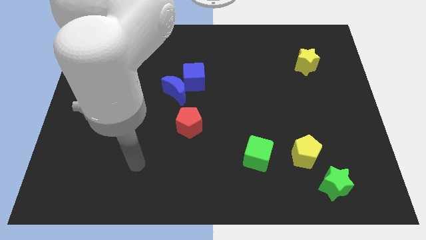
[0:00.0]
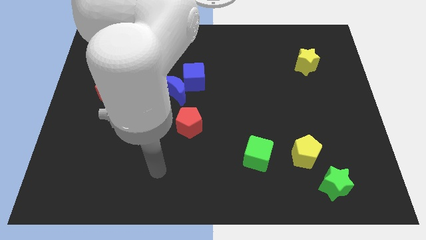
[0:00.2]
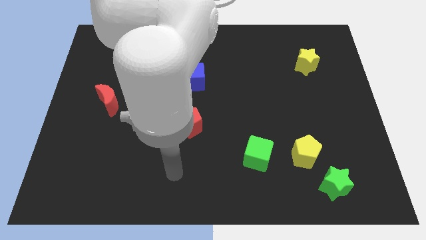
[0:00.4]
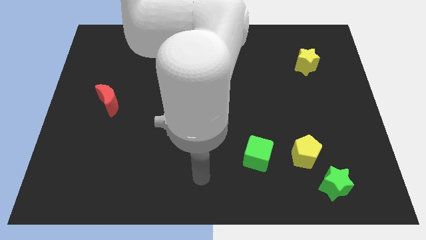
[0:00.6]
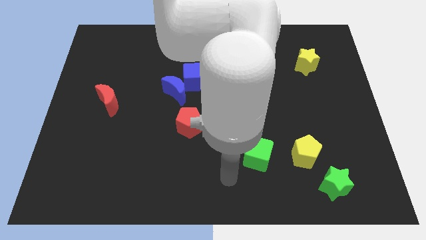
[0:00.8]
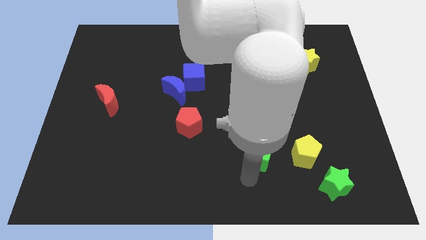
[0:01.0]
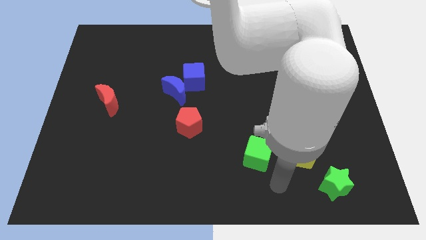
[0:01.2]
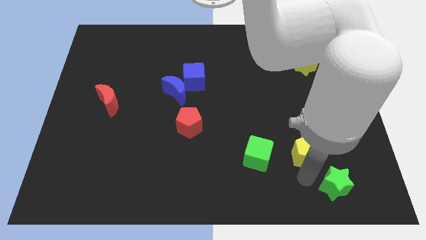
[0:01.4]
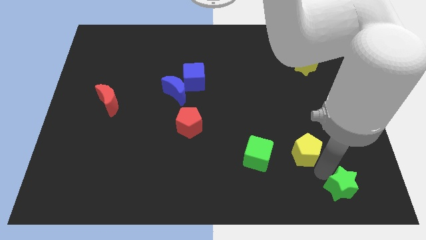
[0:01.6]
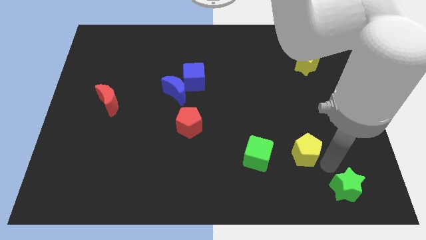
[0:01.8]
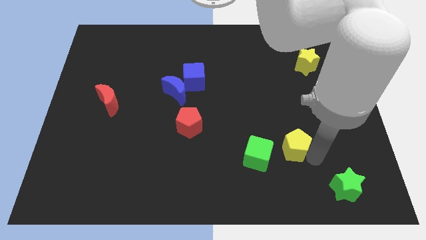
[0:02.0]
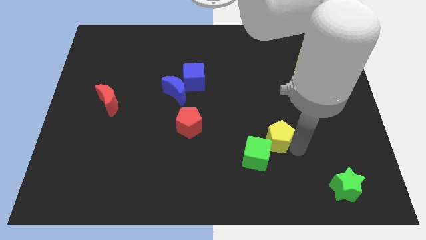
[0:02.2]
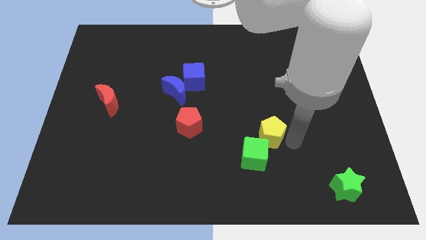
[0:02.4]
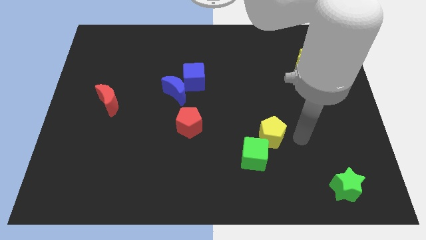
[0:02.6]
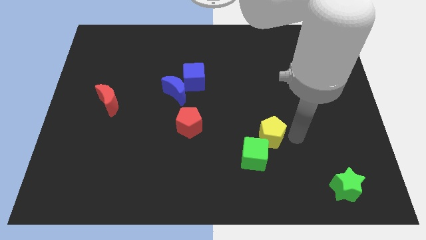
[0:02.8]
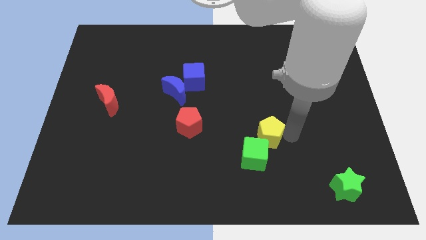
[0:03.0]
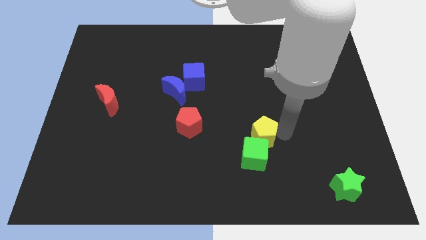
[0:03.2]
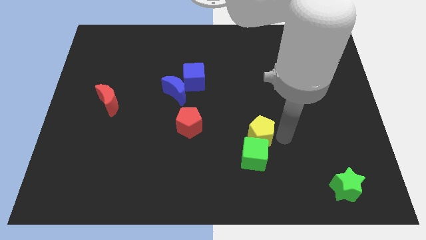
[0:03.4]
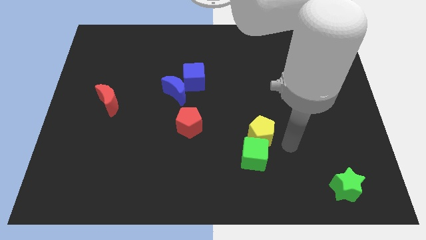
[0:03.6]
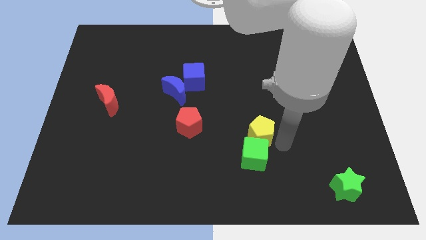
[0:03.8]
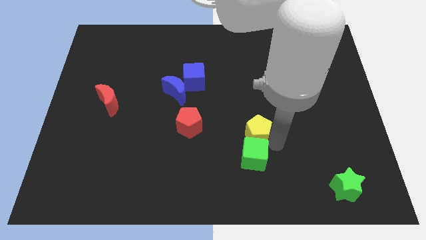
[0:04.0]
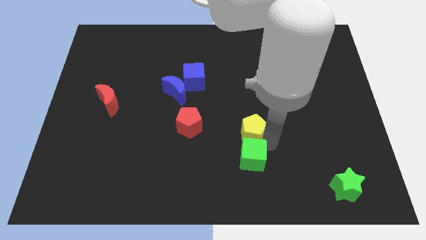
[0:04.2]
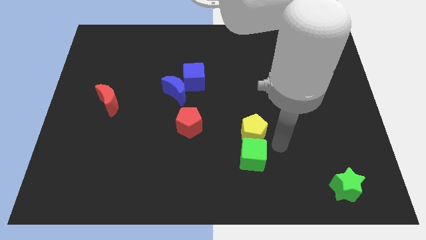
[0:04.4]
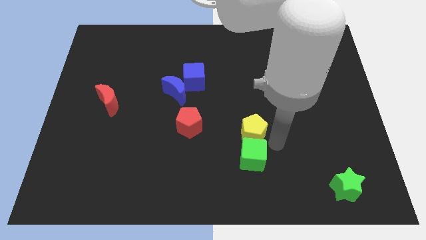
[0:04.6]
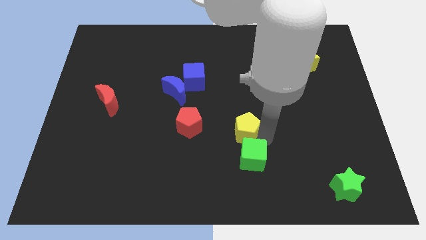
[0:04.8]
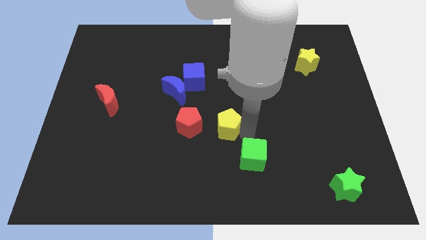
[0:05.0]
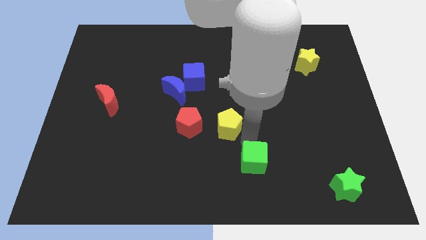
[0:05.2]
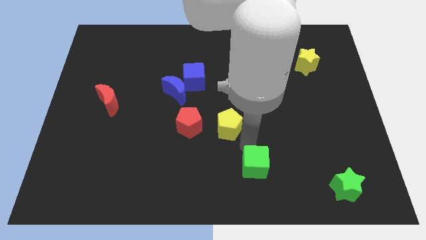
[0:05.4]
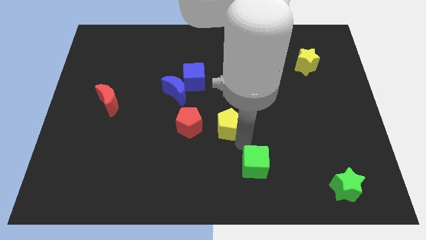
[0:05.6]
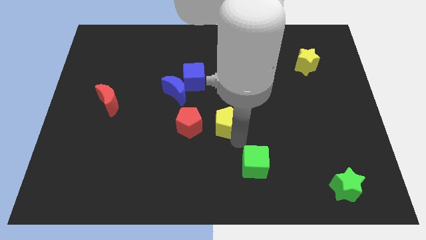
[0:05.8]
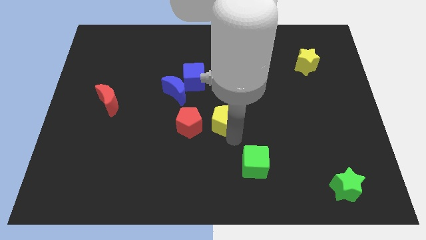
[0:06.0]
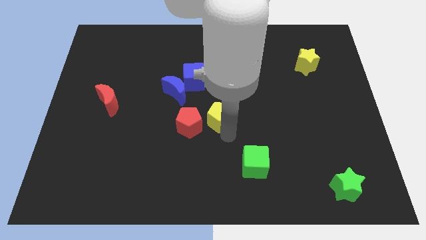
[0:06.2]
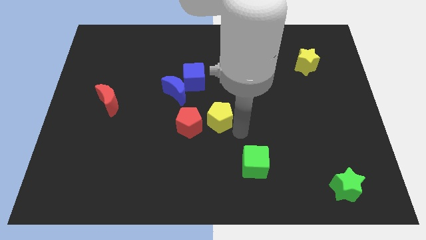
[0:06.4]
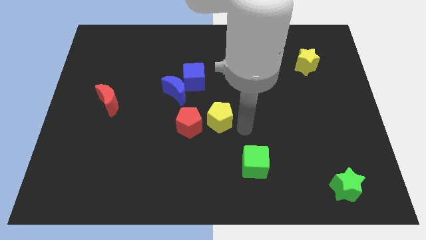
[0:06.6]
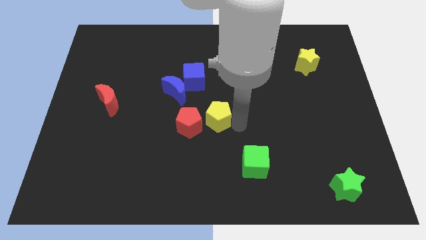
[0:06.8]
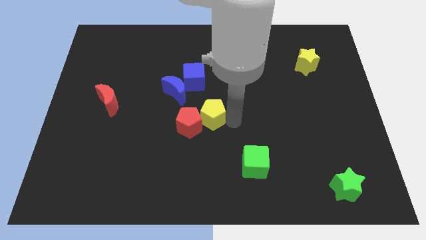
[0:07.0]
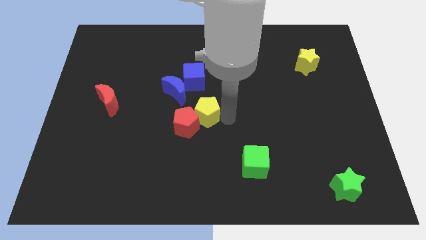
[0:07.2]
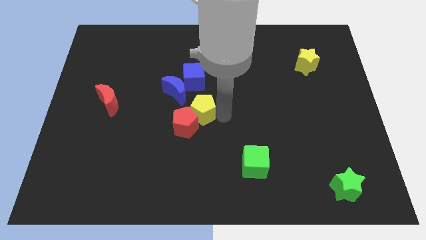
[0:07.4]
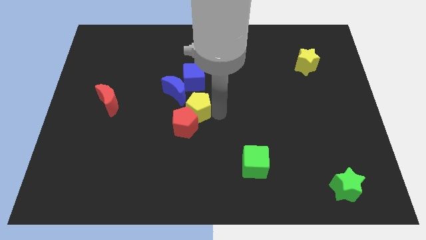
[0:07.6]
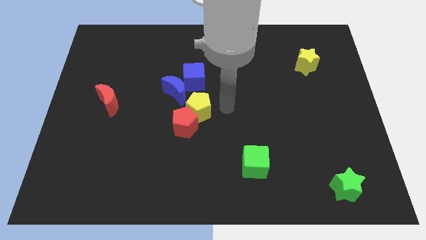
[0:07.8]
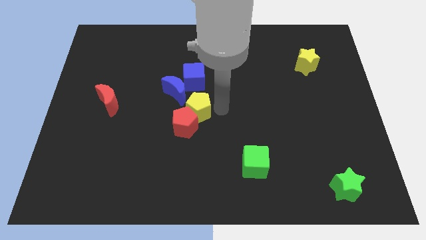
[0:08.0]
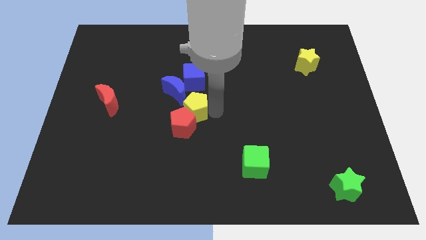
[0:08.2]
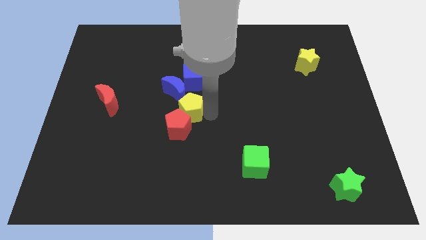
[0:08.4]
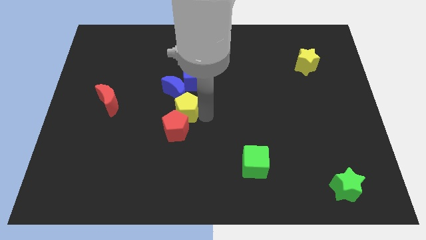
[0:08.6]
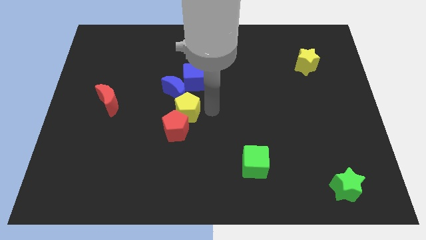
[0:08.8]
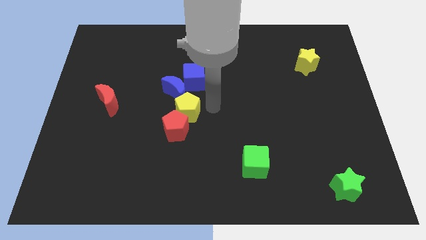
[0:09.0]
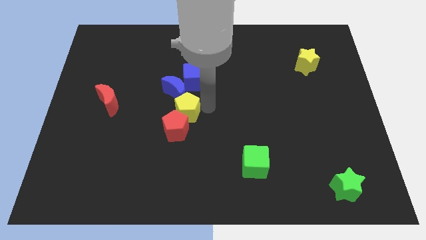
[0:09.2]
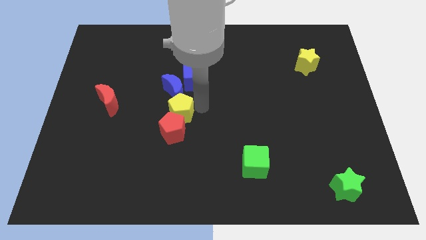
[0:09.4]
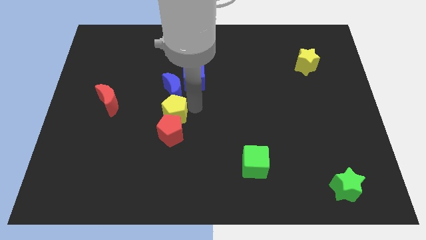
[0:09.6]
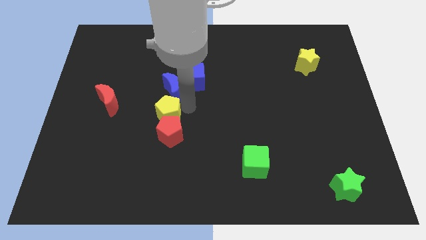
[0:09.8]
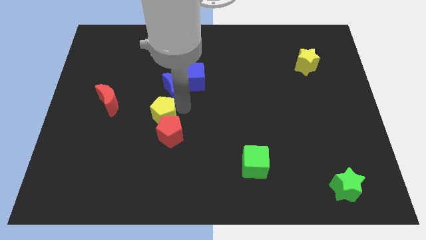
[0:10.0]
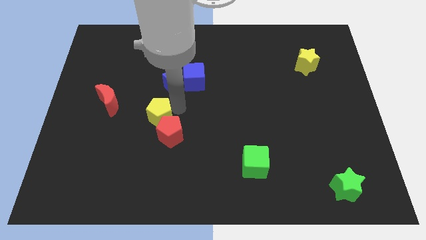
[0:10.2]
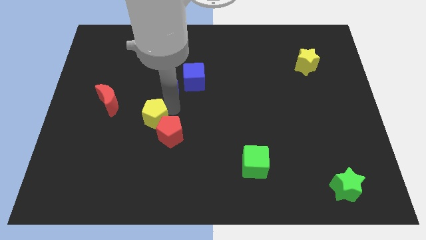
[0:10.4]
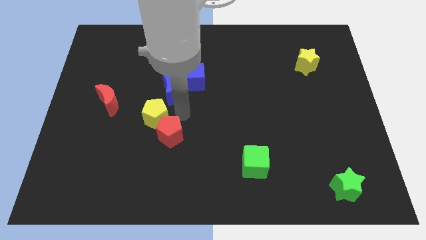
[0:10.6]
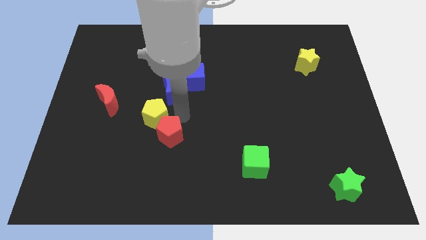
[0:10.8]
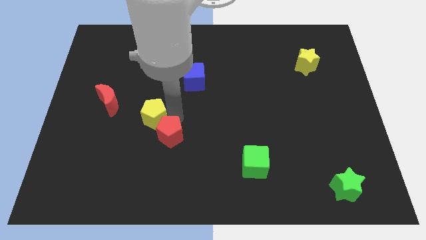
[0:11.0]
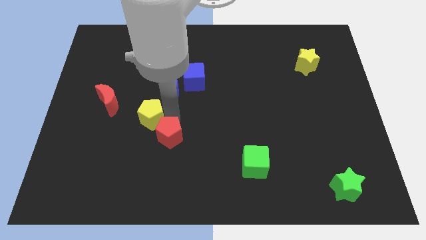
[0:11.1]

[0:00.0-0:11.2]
slide the yellow pentagon to the bottom right of the red moon

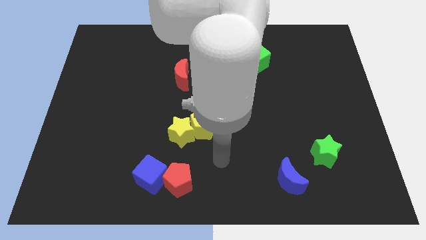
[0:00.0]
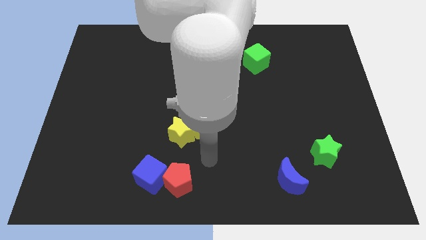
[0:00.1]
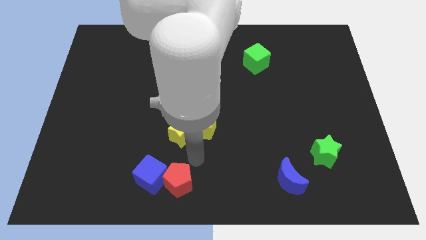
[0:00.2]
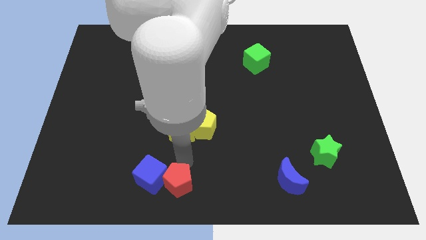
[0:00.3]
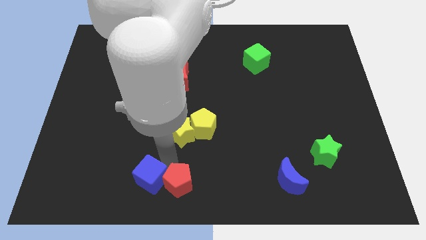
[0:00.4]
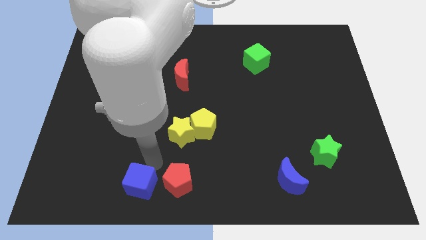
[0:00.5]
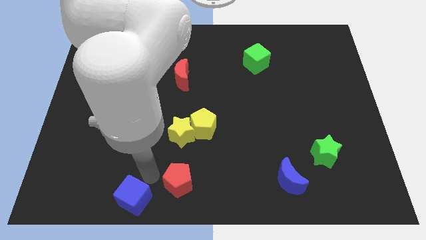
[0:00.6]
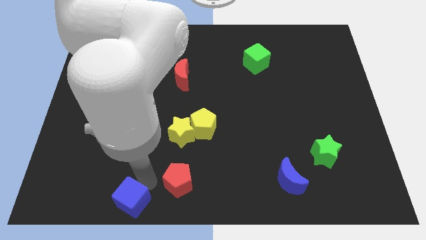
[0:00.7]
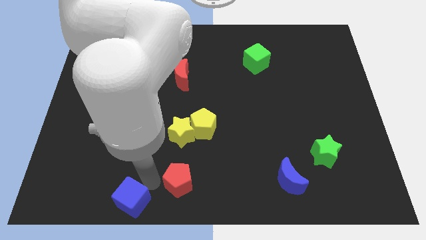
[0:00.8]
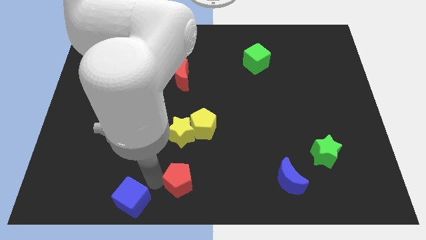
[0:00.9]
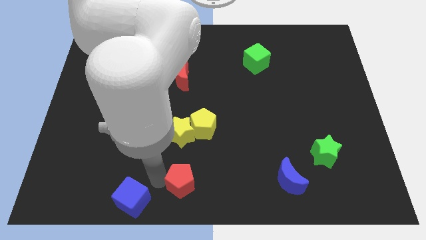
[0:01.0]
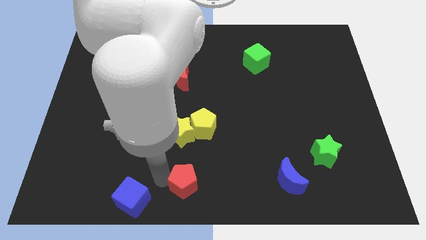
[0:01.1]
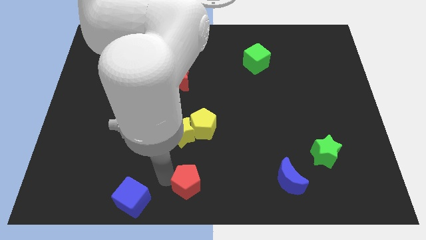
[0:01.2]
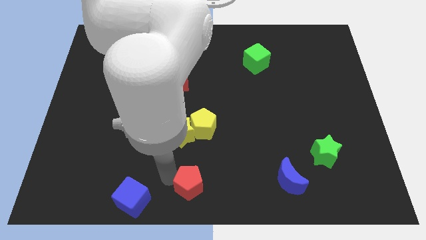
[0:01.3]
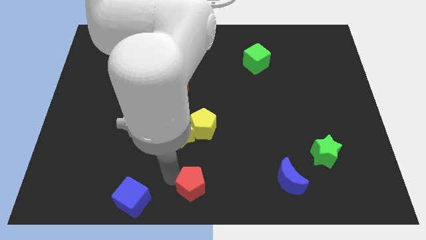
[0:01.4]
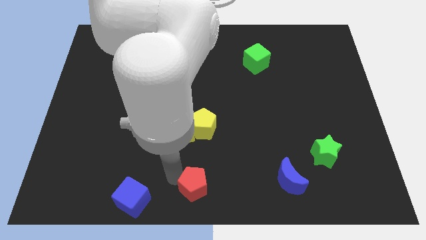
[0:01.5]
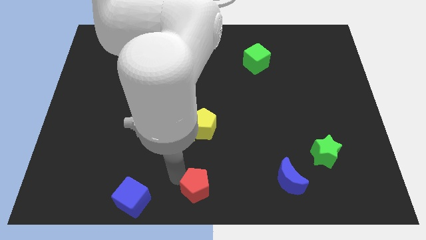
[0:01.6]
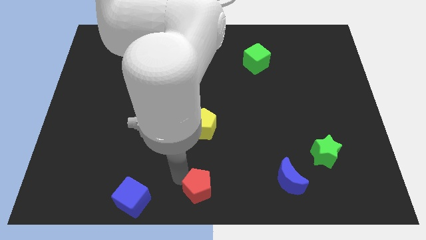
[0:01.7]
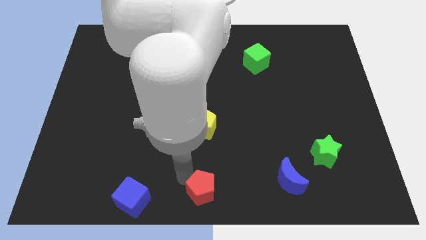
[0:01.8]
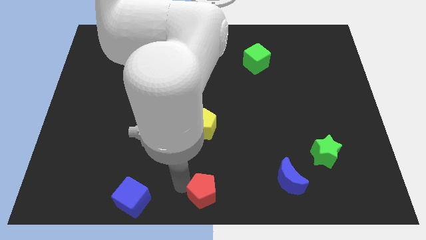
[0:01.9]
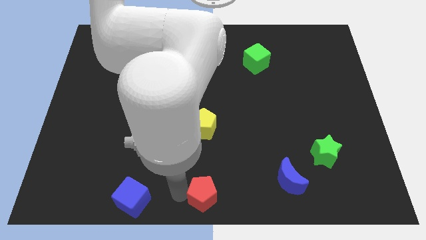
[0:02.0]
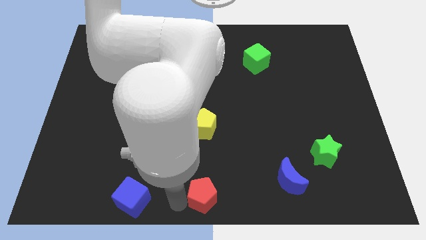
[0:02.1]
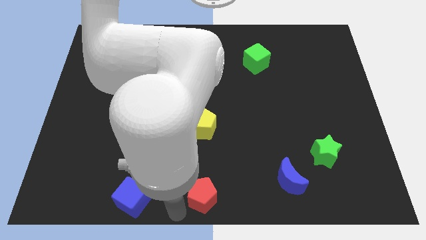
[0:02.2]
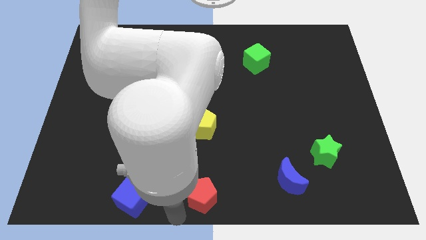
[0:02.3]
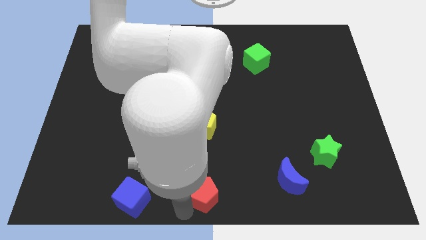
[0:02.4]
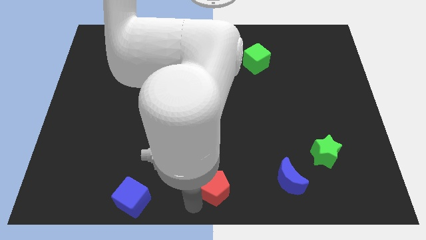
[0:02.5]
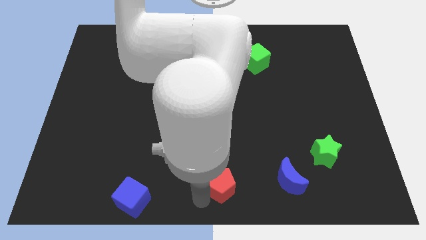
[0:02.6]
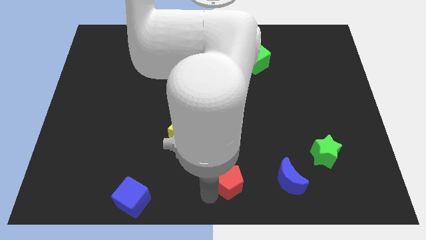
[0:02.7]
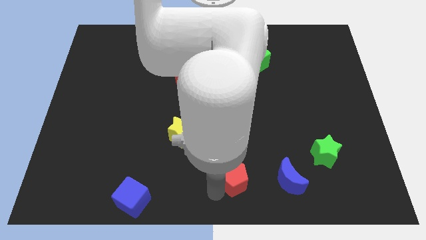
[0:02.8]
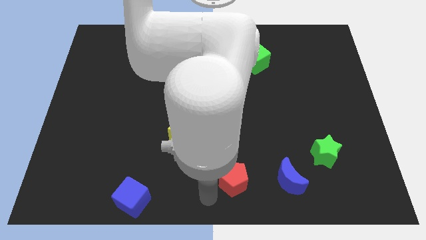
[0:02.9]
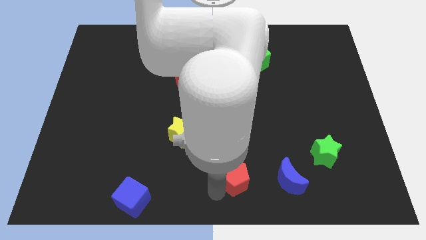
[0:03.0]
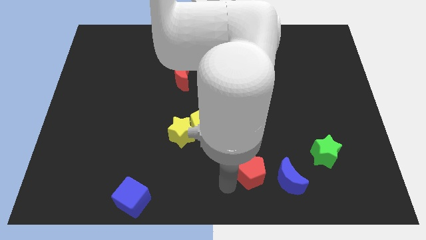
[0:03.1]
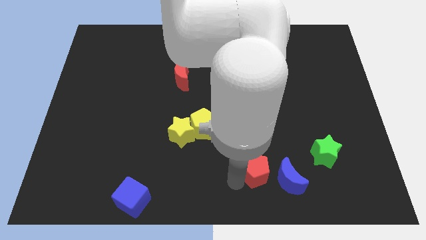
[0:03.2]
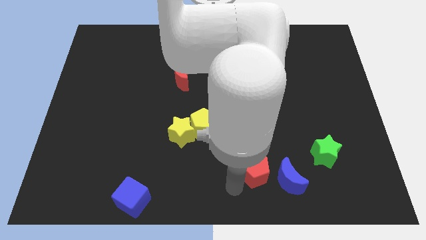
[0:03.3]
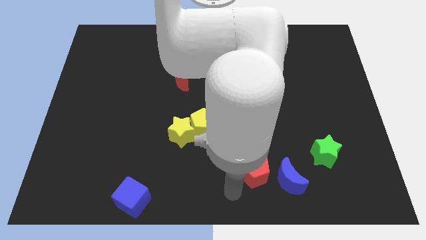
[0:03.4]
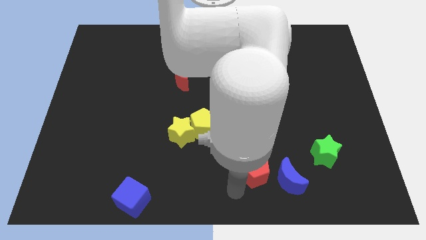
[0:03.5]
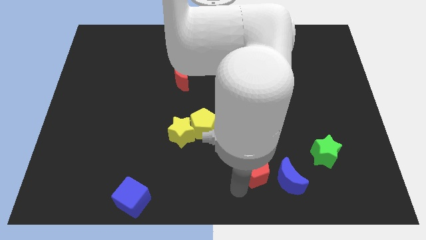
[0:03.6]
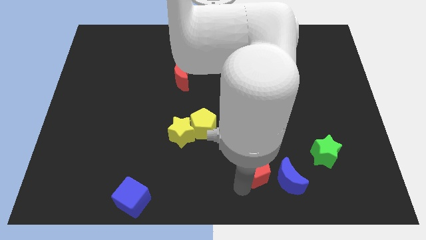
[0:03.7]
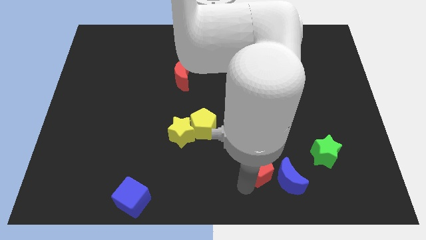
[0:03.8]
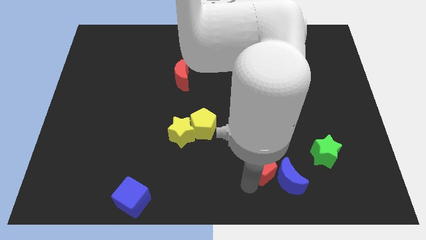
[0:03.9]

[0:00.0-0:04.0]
put the red pentagon just left of the green star
